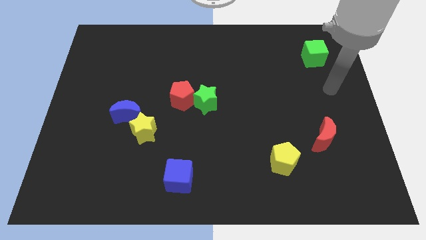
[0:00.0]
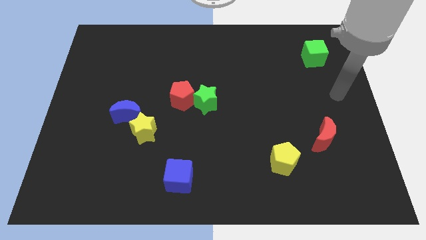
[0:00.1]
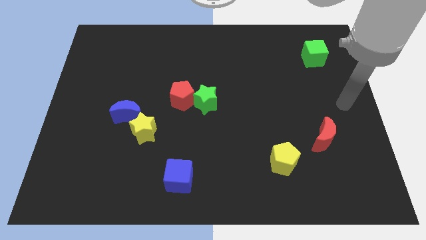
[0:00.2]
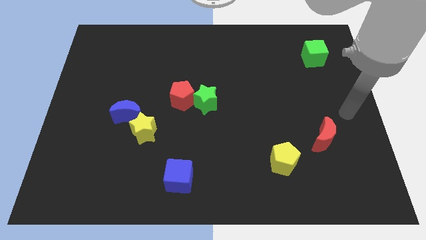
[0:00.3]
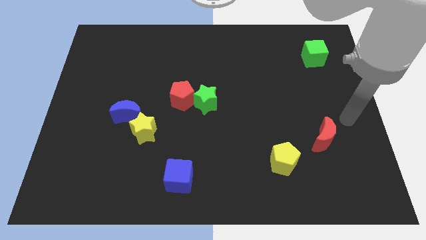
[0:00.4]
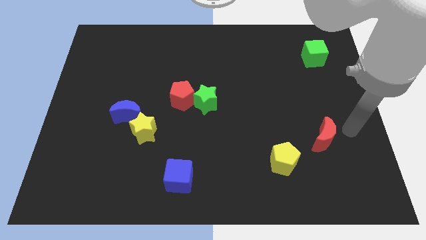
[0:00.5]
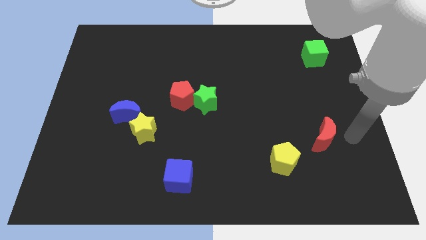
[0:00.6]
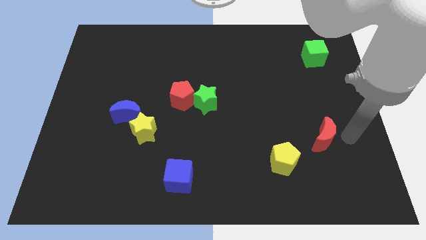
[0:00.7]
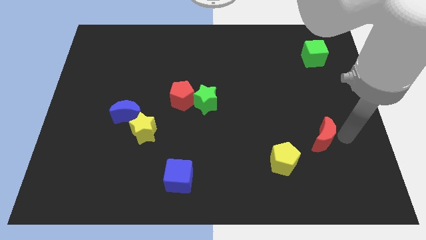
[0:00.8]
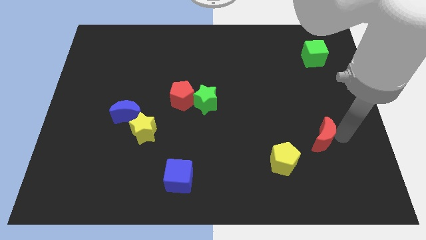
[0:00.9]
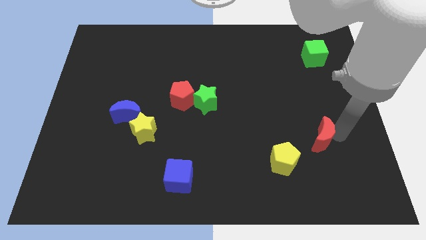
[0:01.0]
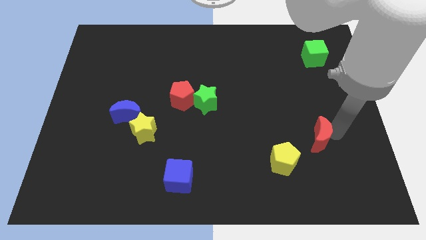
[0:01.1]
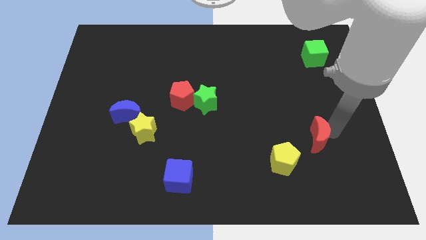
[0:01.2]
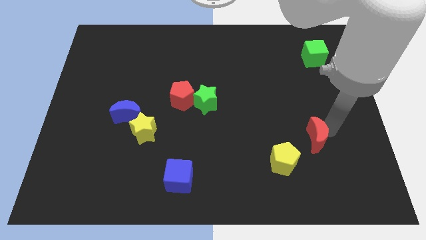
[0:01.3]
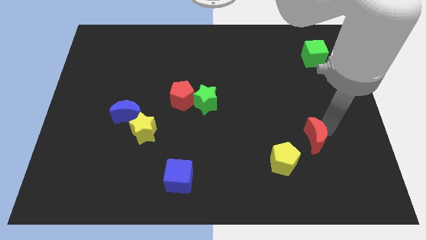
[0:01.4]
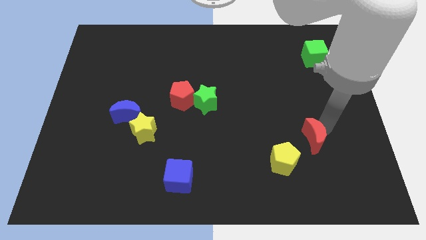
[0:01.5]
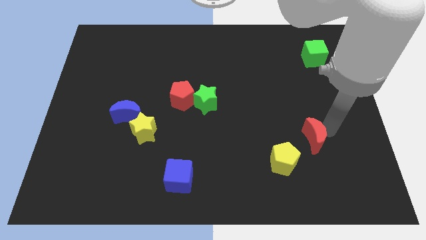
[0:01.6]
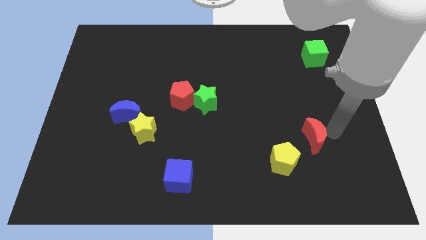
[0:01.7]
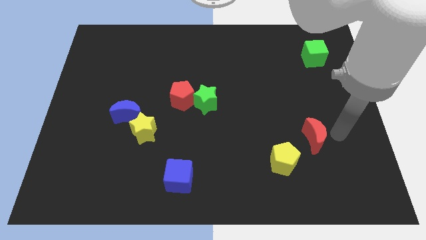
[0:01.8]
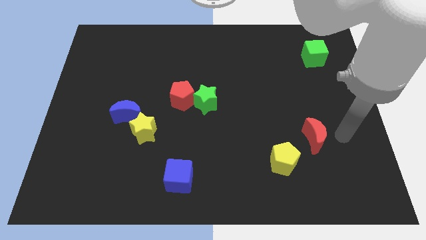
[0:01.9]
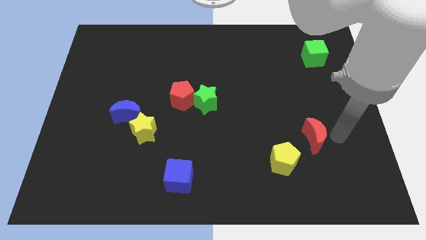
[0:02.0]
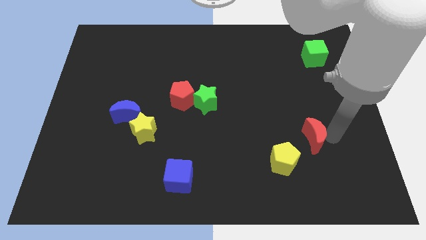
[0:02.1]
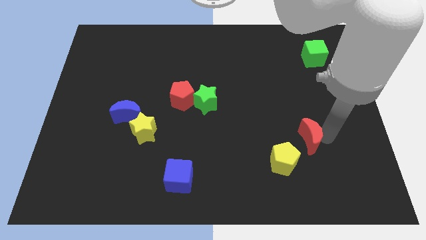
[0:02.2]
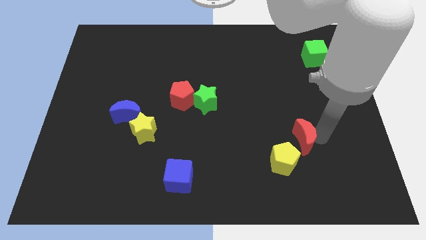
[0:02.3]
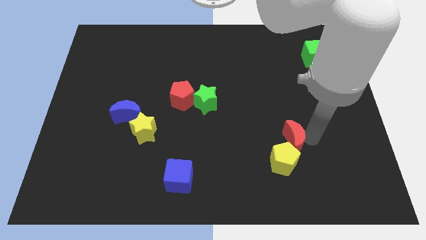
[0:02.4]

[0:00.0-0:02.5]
slide the red moon a little left

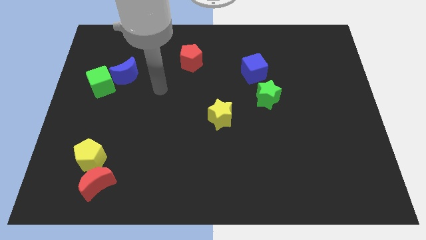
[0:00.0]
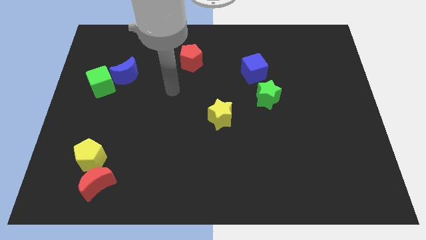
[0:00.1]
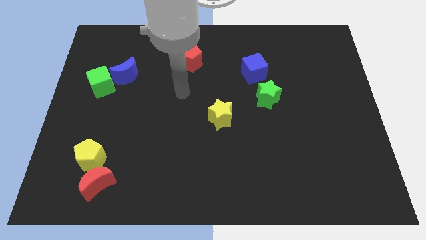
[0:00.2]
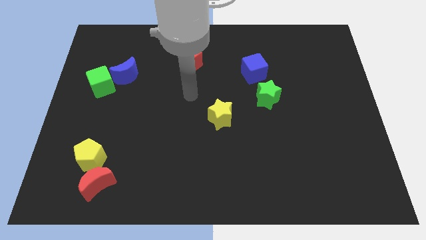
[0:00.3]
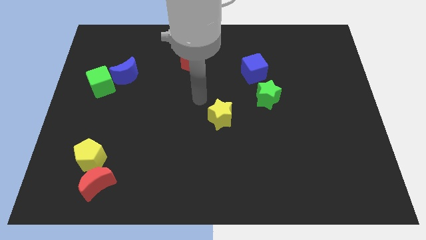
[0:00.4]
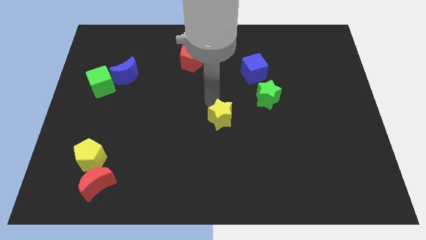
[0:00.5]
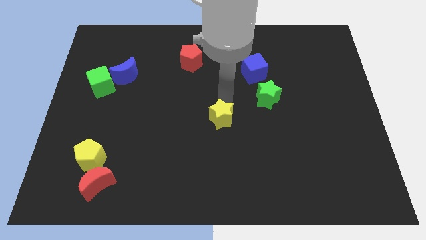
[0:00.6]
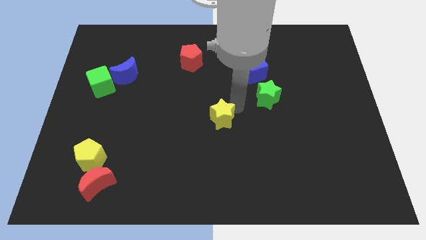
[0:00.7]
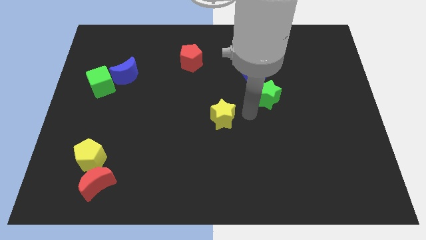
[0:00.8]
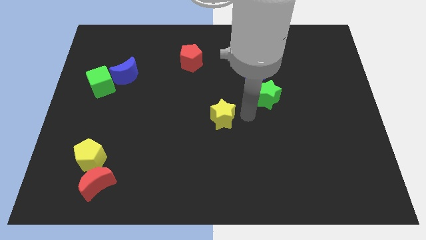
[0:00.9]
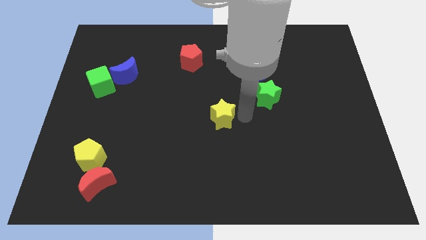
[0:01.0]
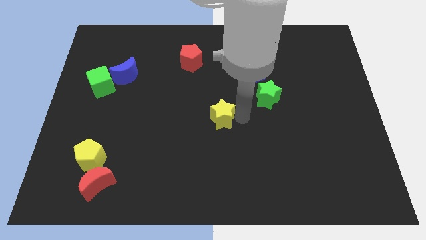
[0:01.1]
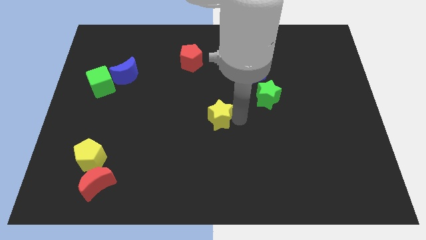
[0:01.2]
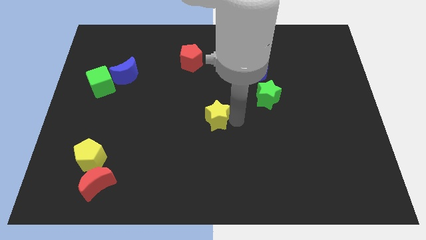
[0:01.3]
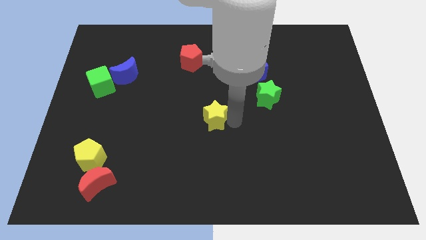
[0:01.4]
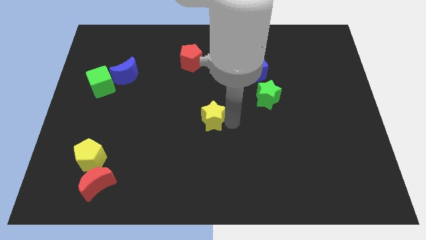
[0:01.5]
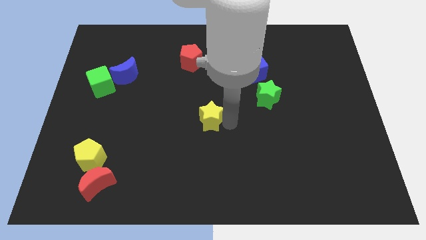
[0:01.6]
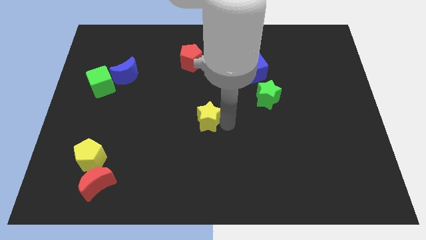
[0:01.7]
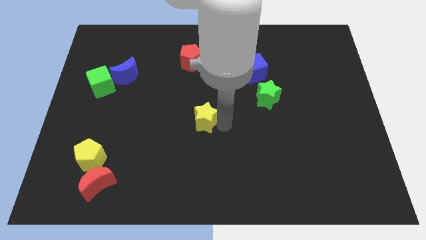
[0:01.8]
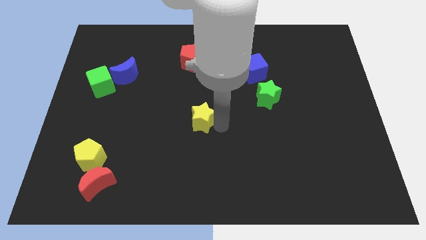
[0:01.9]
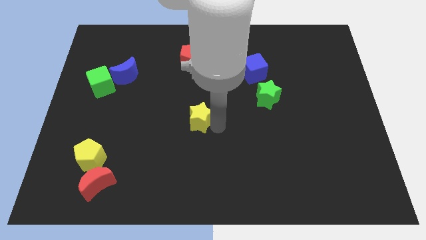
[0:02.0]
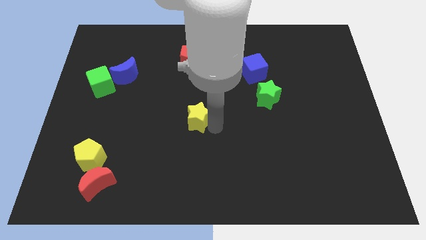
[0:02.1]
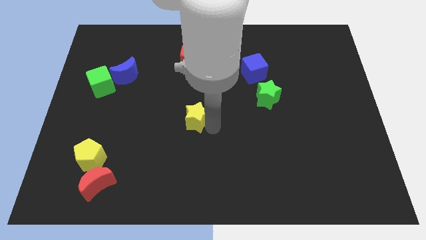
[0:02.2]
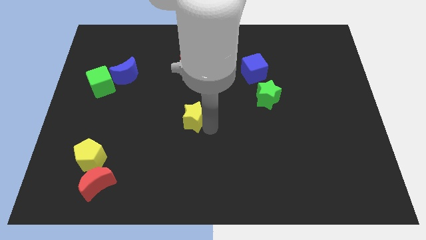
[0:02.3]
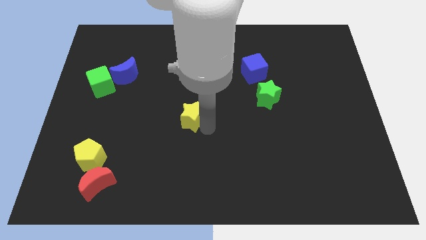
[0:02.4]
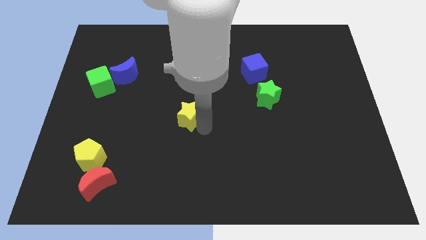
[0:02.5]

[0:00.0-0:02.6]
move the yellow star left slightly

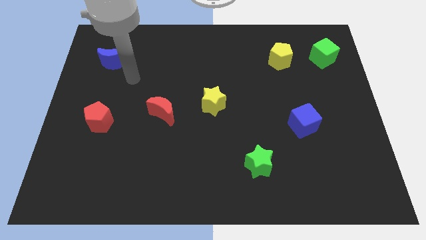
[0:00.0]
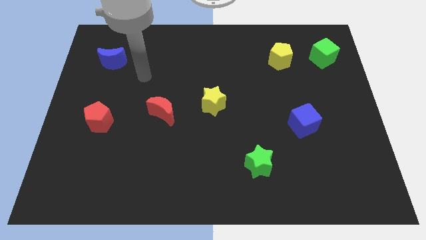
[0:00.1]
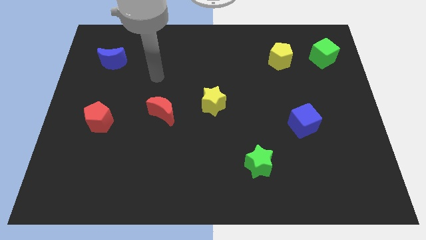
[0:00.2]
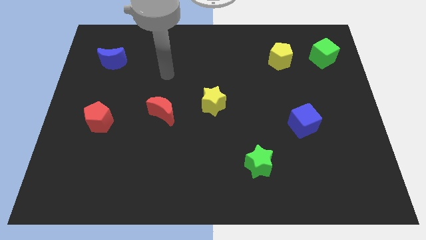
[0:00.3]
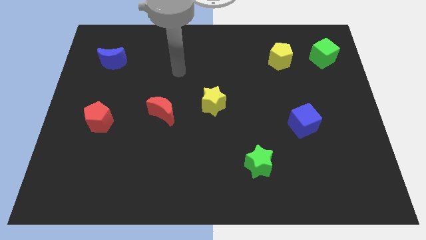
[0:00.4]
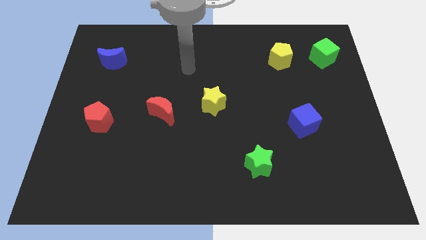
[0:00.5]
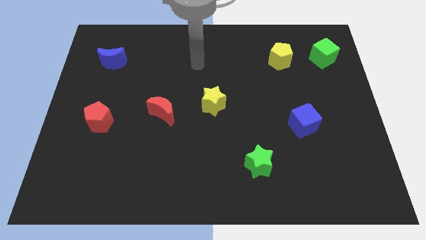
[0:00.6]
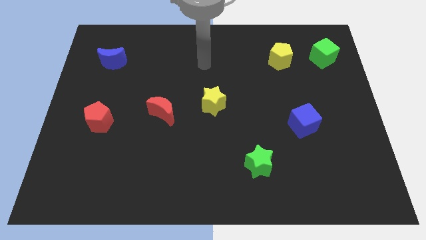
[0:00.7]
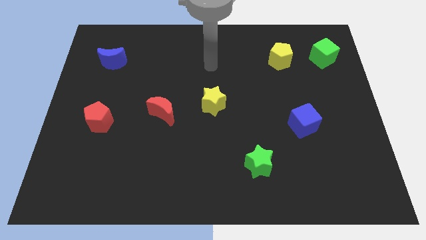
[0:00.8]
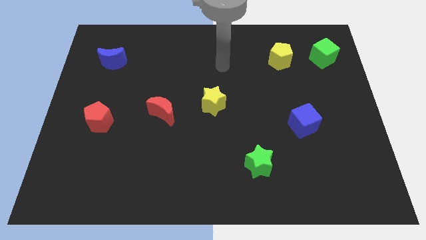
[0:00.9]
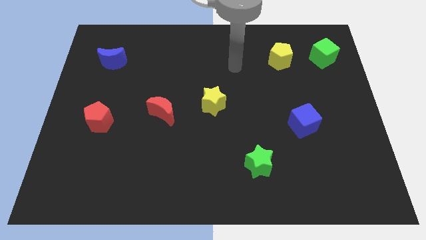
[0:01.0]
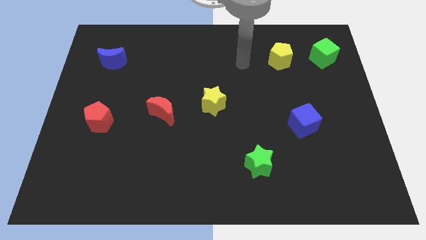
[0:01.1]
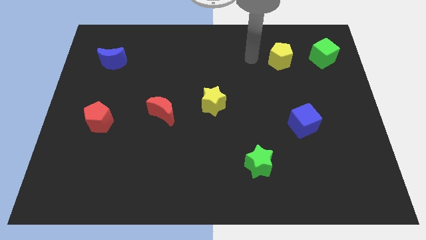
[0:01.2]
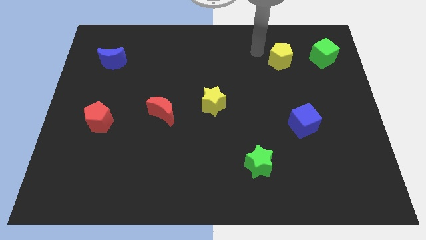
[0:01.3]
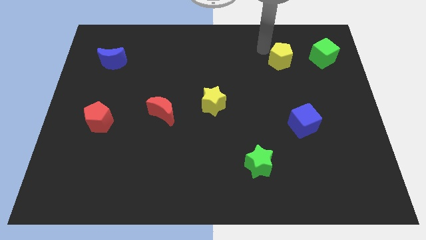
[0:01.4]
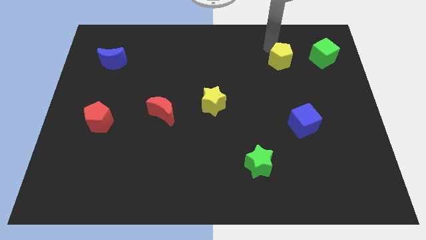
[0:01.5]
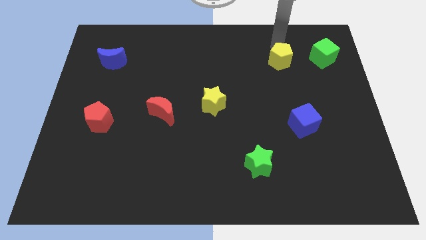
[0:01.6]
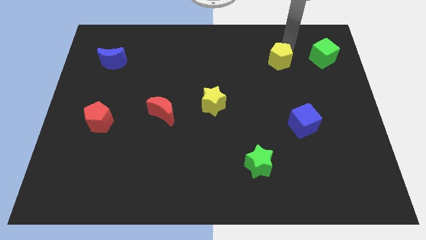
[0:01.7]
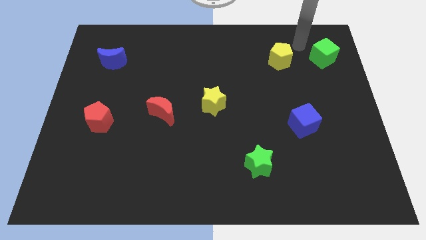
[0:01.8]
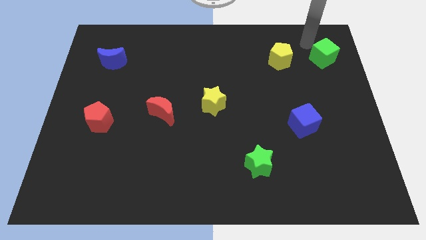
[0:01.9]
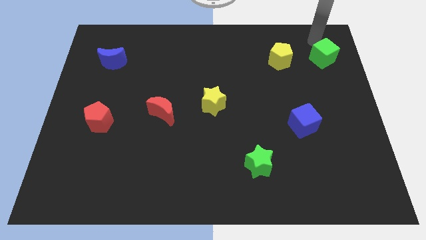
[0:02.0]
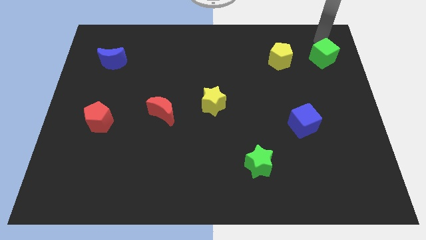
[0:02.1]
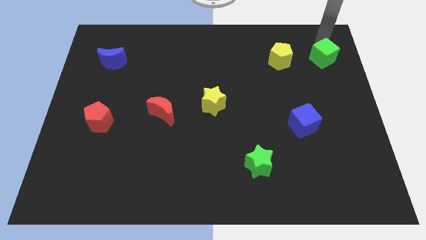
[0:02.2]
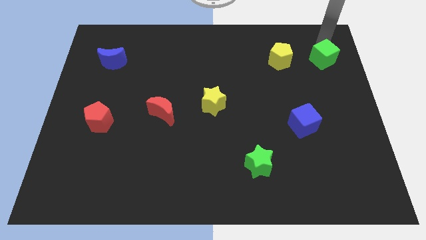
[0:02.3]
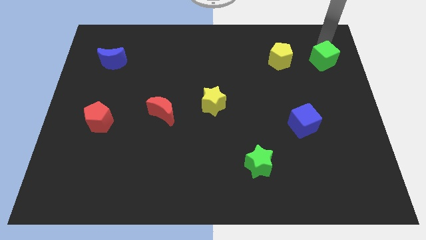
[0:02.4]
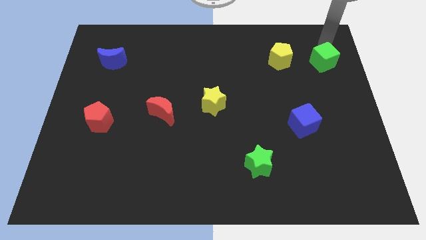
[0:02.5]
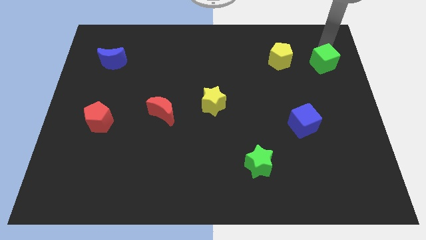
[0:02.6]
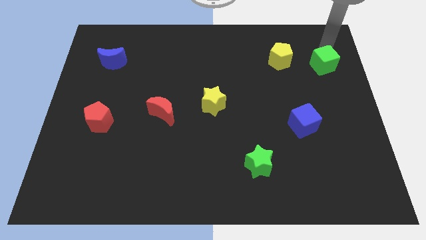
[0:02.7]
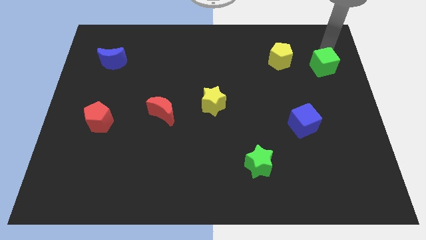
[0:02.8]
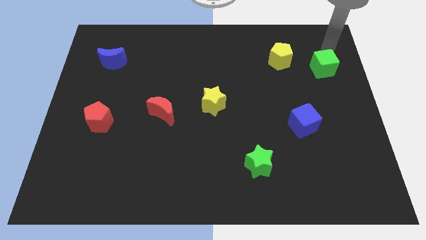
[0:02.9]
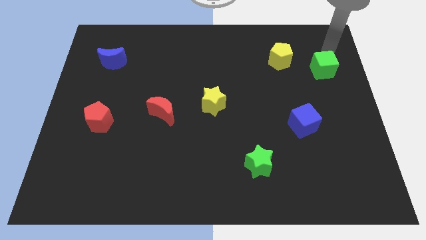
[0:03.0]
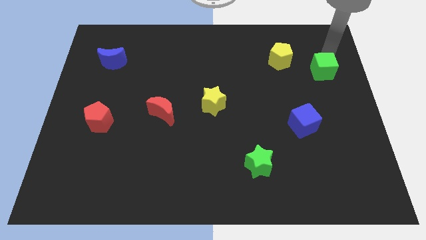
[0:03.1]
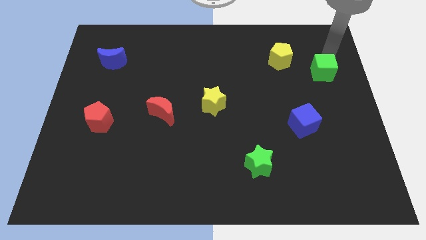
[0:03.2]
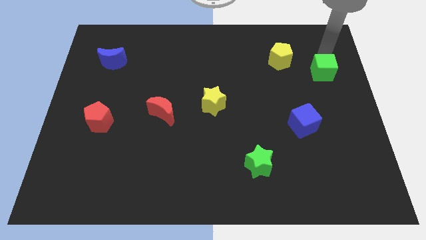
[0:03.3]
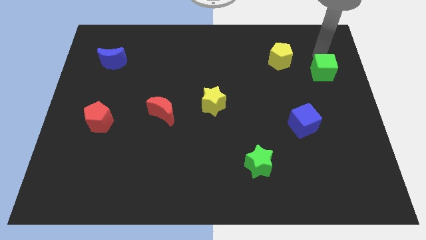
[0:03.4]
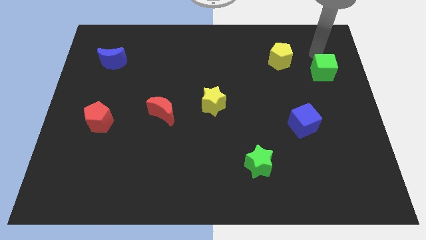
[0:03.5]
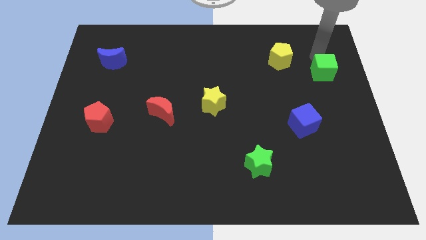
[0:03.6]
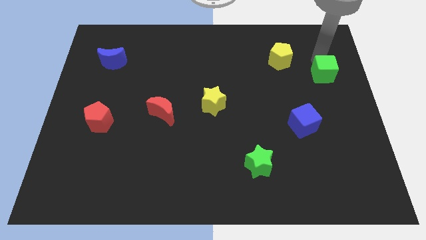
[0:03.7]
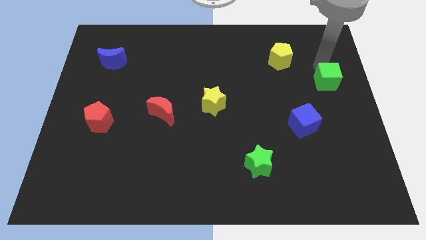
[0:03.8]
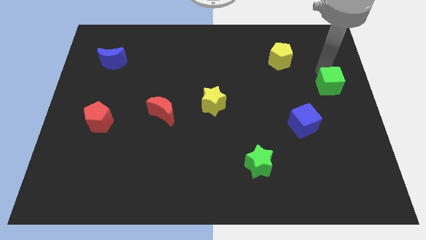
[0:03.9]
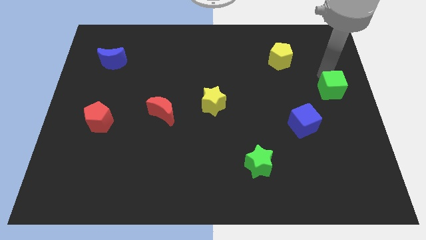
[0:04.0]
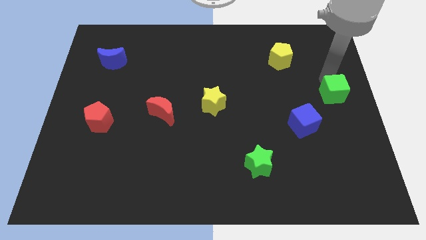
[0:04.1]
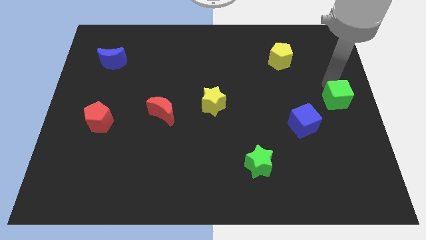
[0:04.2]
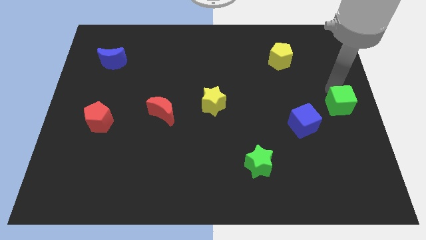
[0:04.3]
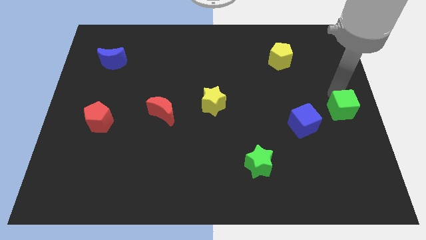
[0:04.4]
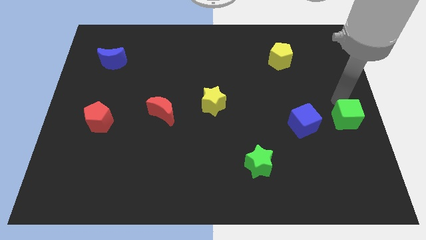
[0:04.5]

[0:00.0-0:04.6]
push the green cube down
